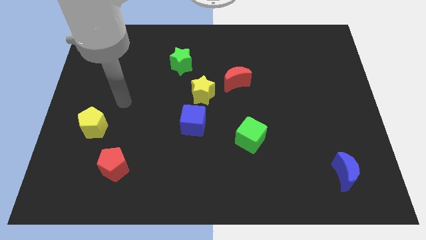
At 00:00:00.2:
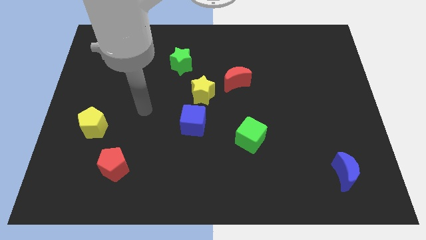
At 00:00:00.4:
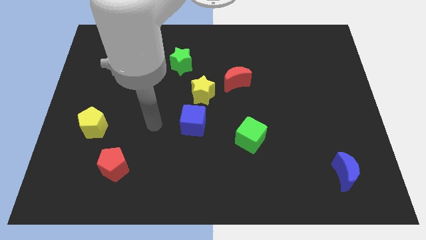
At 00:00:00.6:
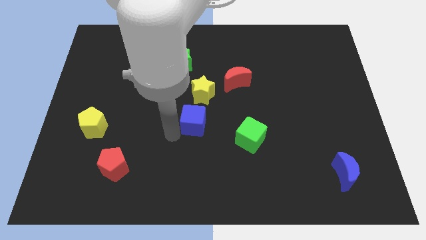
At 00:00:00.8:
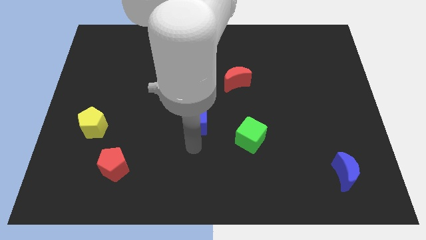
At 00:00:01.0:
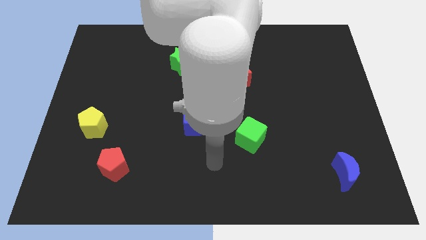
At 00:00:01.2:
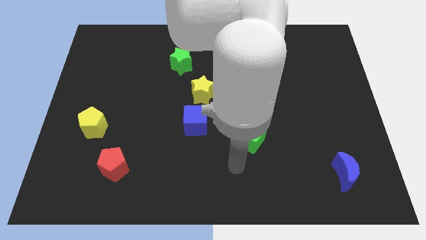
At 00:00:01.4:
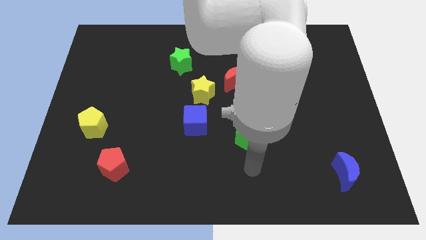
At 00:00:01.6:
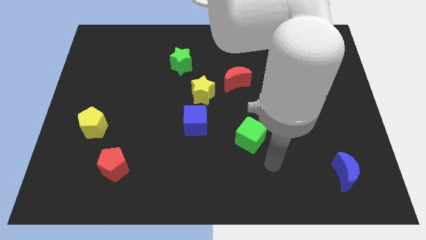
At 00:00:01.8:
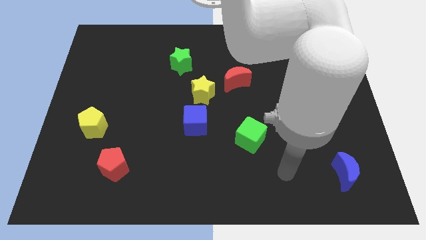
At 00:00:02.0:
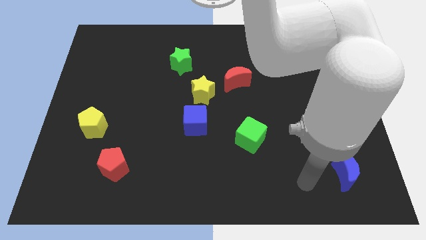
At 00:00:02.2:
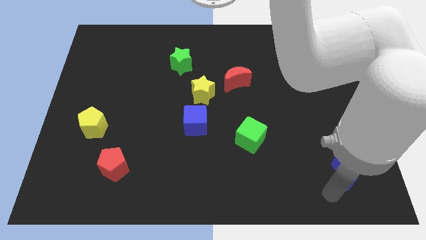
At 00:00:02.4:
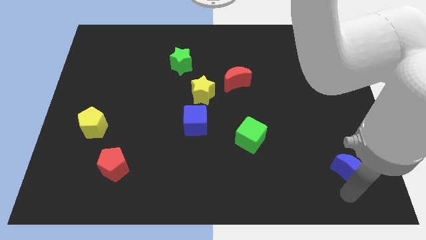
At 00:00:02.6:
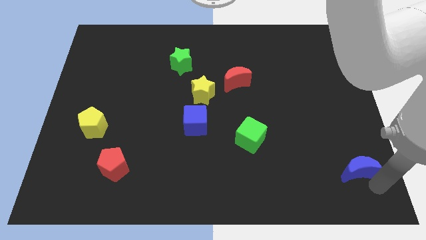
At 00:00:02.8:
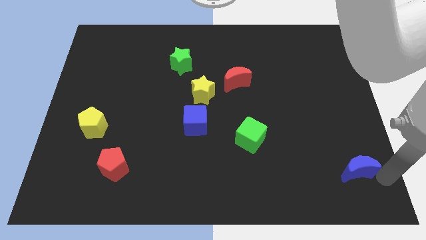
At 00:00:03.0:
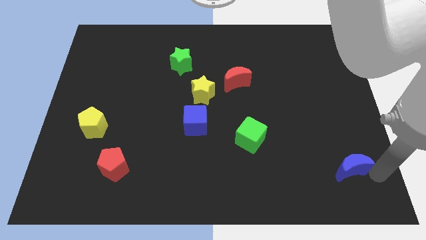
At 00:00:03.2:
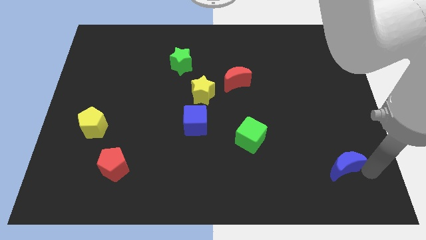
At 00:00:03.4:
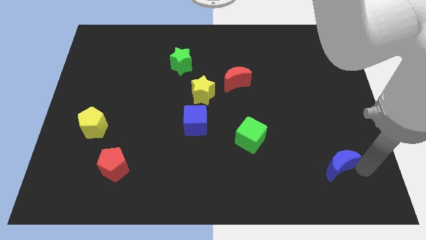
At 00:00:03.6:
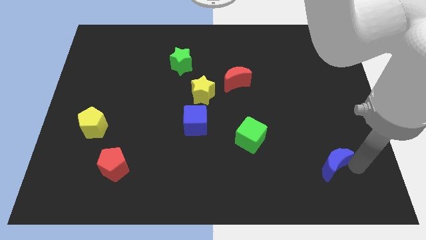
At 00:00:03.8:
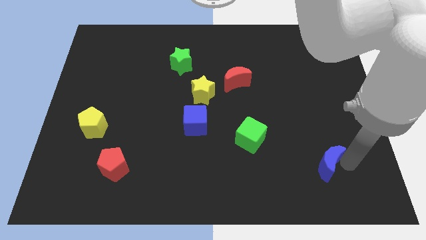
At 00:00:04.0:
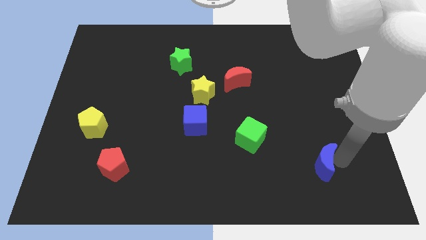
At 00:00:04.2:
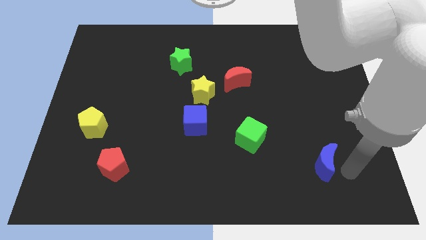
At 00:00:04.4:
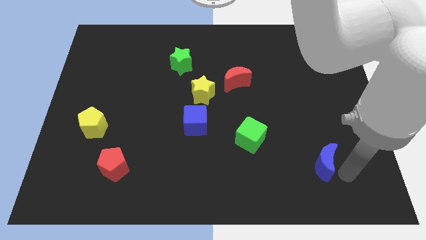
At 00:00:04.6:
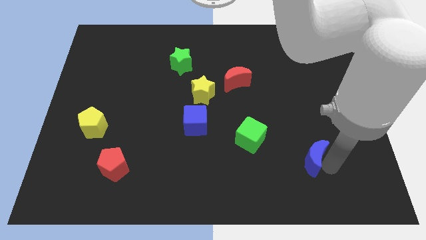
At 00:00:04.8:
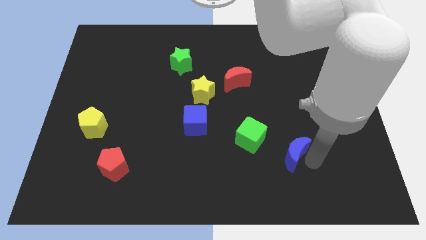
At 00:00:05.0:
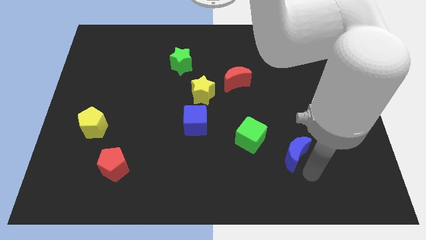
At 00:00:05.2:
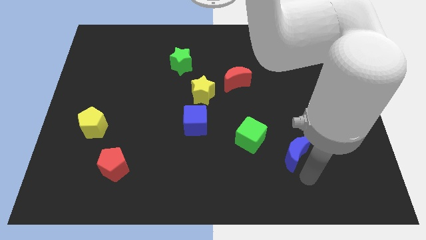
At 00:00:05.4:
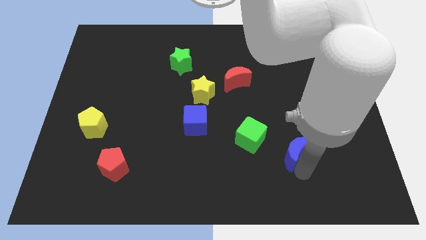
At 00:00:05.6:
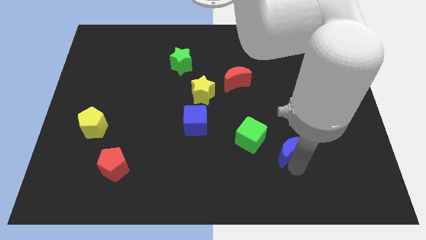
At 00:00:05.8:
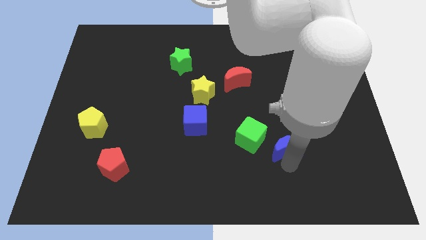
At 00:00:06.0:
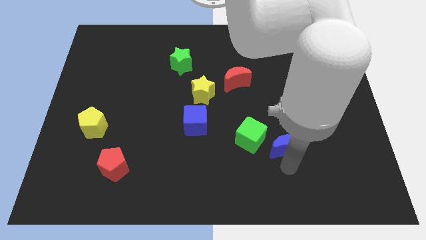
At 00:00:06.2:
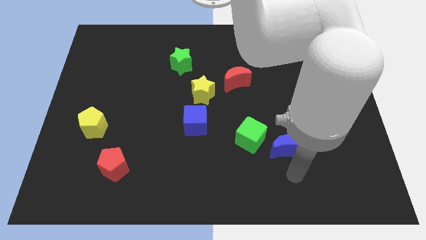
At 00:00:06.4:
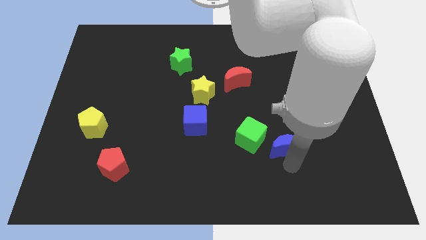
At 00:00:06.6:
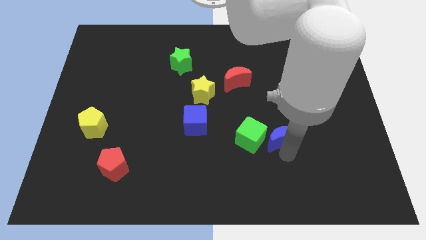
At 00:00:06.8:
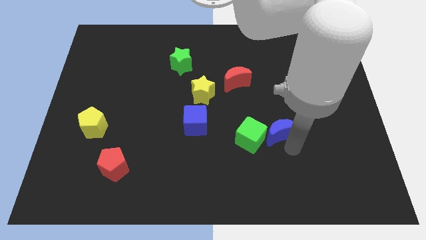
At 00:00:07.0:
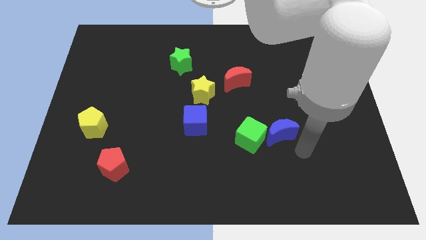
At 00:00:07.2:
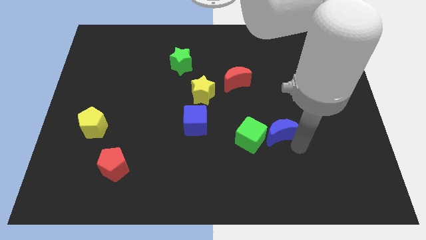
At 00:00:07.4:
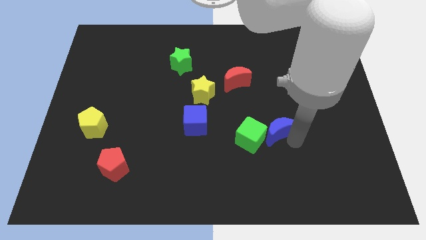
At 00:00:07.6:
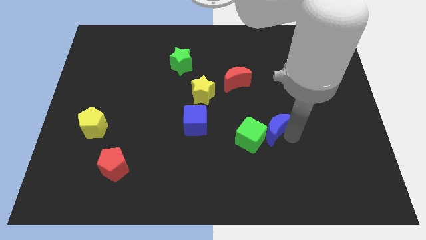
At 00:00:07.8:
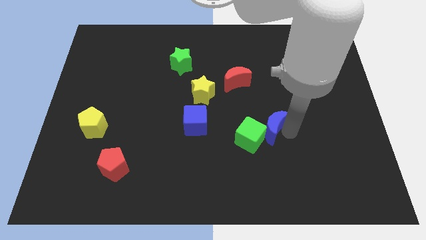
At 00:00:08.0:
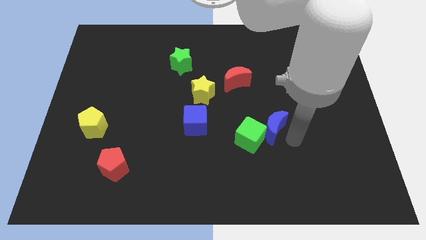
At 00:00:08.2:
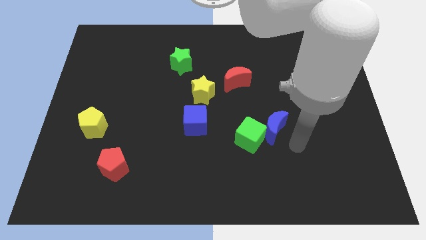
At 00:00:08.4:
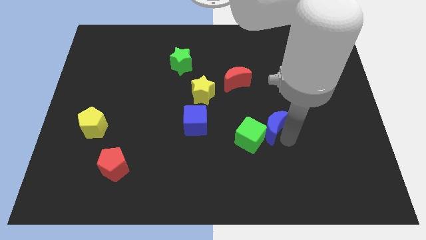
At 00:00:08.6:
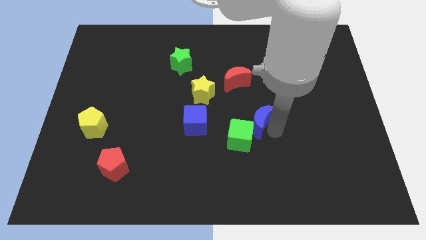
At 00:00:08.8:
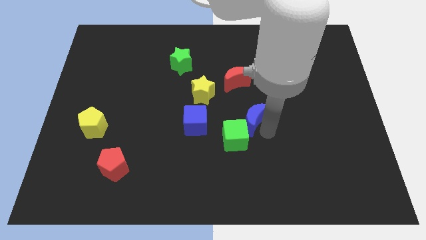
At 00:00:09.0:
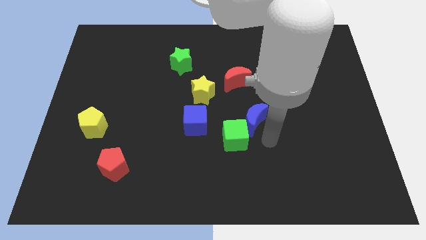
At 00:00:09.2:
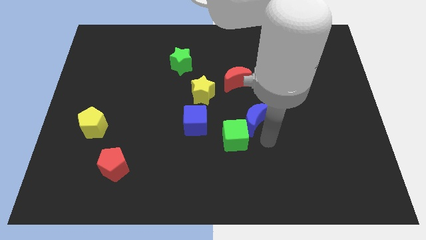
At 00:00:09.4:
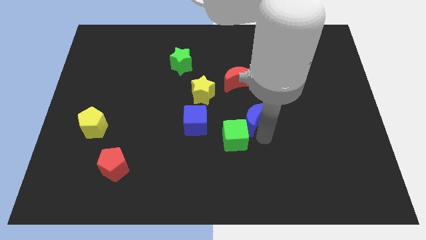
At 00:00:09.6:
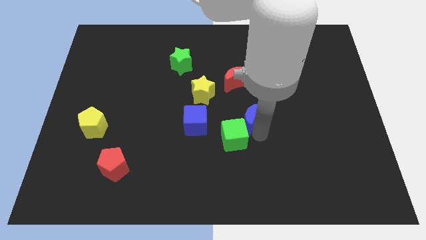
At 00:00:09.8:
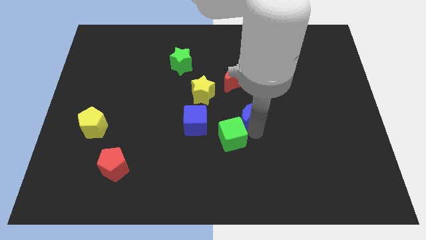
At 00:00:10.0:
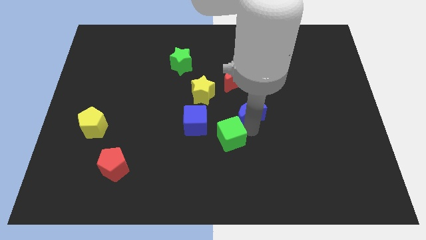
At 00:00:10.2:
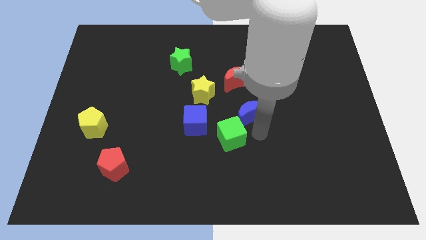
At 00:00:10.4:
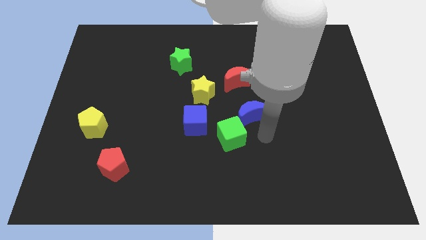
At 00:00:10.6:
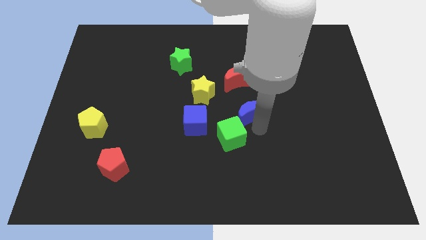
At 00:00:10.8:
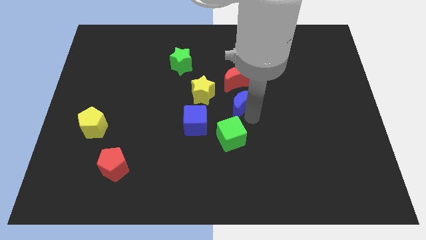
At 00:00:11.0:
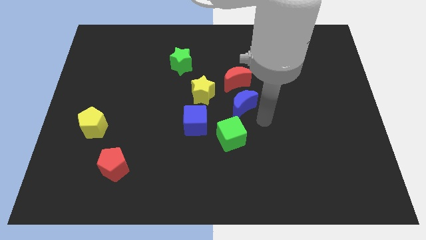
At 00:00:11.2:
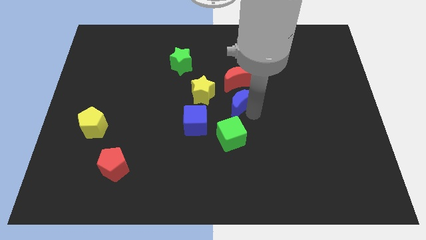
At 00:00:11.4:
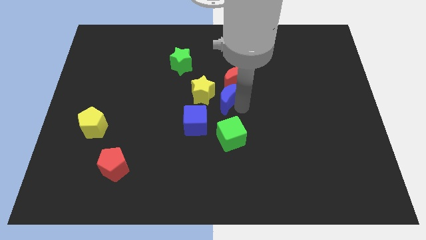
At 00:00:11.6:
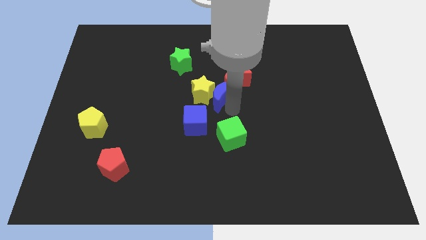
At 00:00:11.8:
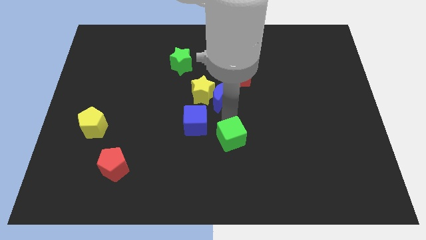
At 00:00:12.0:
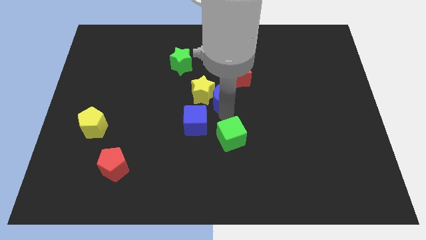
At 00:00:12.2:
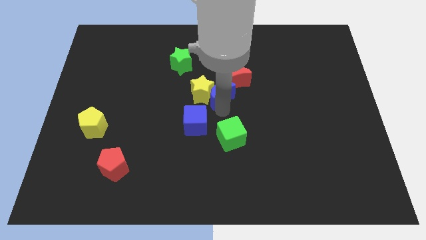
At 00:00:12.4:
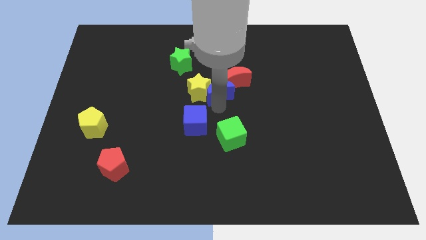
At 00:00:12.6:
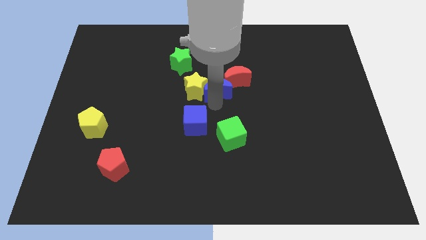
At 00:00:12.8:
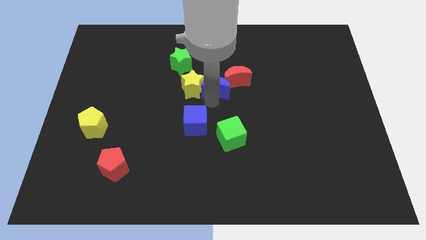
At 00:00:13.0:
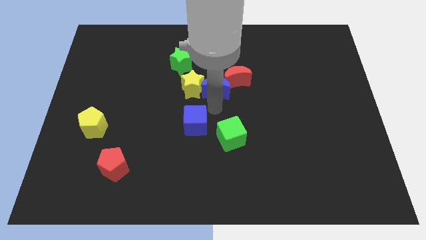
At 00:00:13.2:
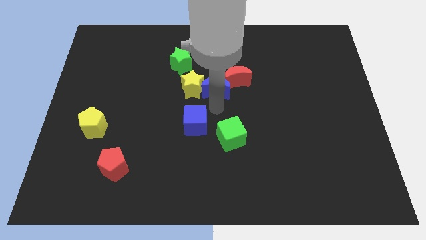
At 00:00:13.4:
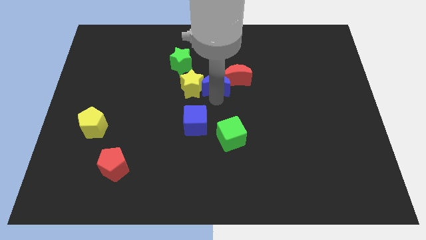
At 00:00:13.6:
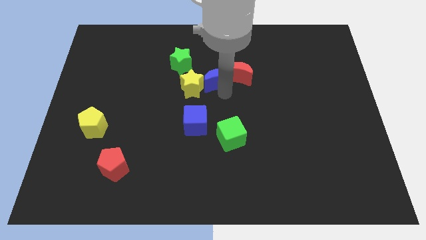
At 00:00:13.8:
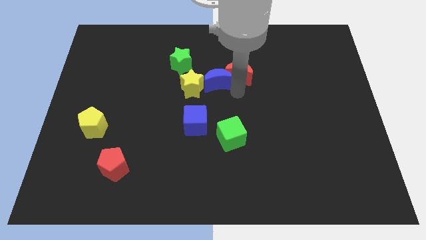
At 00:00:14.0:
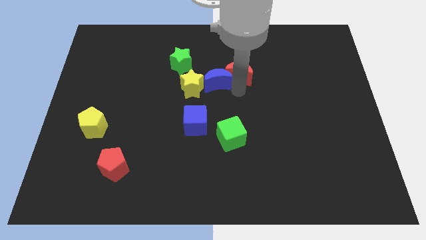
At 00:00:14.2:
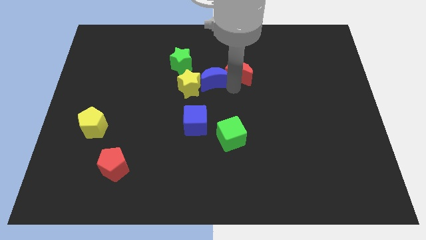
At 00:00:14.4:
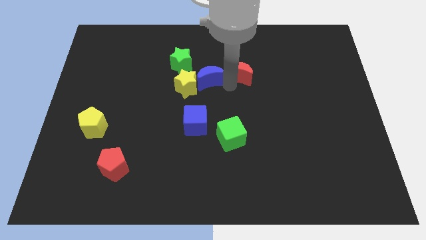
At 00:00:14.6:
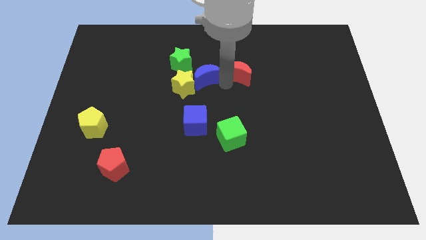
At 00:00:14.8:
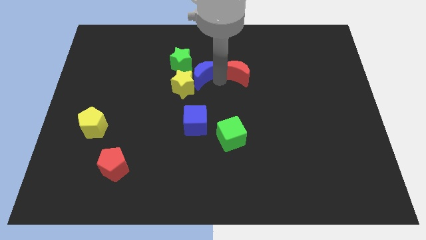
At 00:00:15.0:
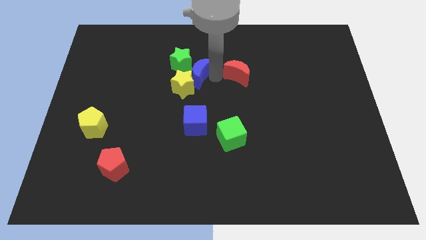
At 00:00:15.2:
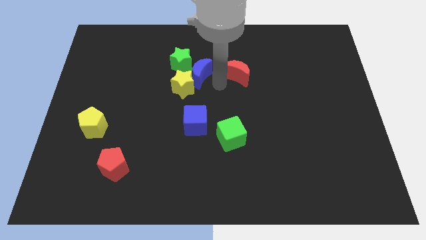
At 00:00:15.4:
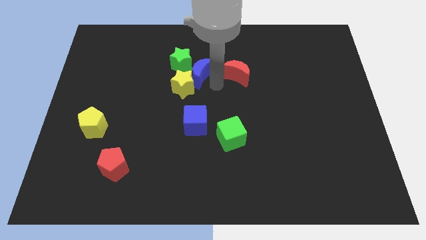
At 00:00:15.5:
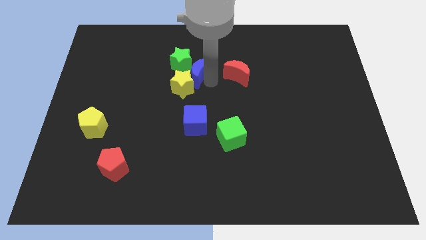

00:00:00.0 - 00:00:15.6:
push the blue moon towards the green star

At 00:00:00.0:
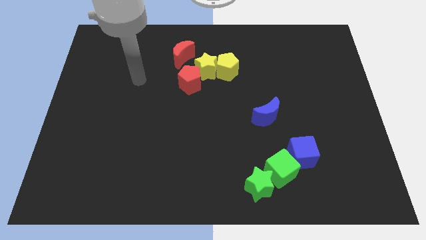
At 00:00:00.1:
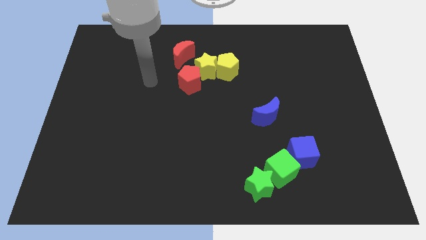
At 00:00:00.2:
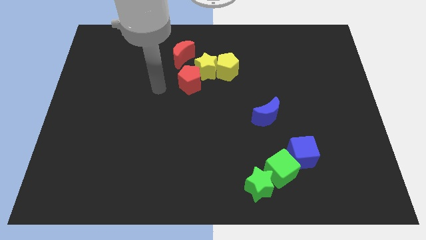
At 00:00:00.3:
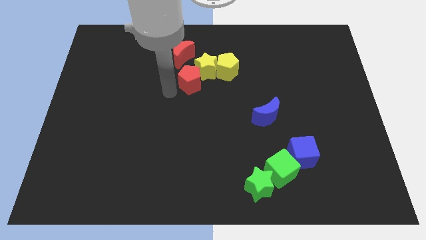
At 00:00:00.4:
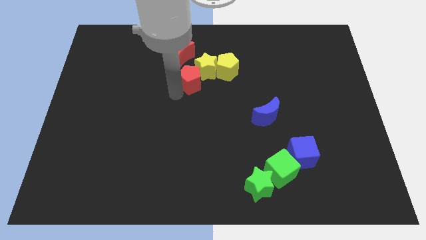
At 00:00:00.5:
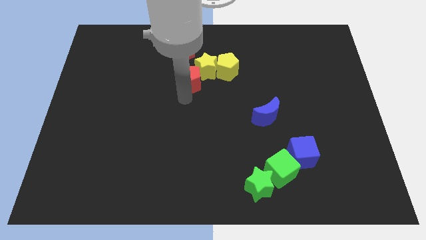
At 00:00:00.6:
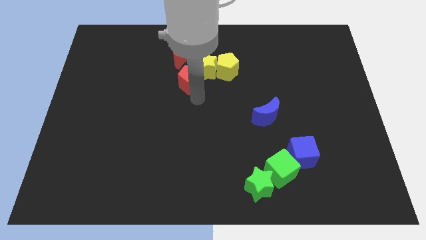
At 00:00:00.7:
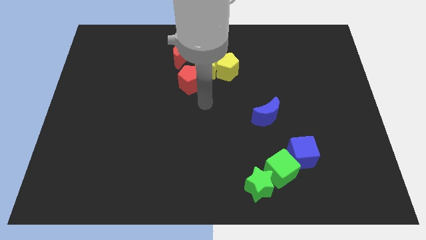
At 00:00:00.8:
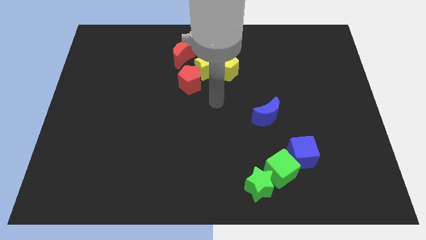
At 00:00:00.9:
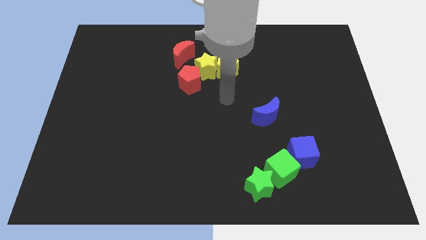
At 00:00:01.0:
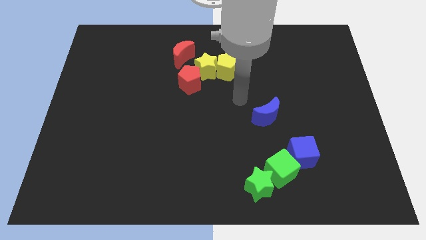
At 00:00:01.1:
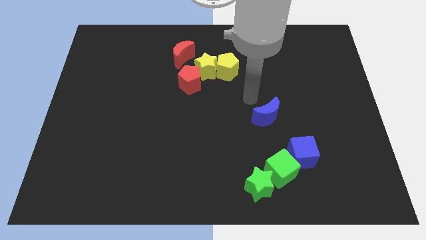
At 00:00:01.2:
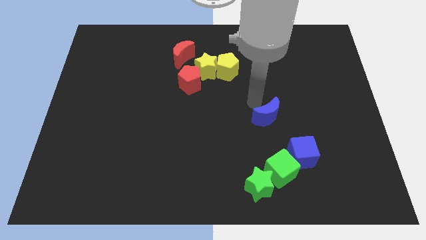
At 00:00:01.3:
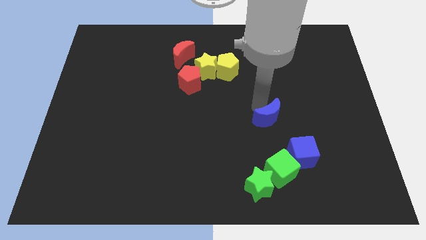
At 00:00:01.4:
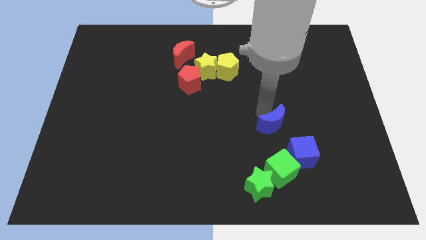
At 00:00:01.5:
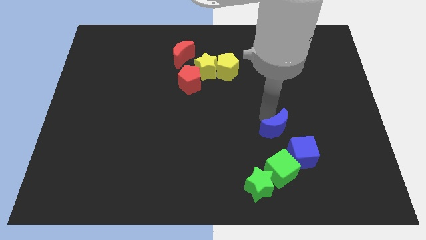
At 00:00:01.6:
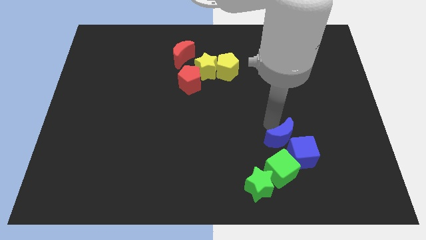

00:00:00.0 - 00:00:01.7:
put the blue moon to the blue cube
